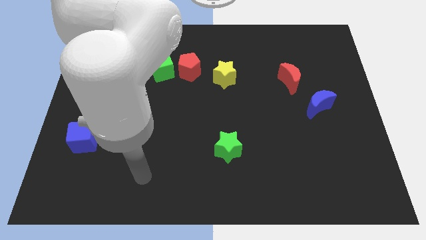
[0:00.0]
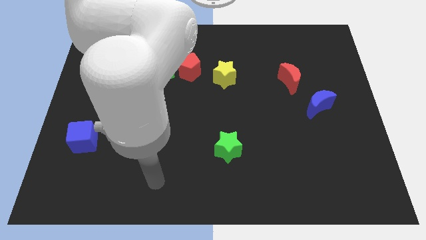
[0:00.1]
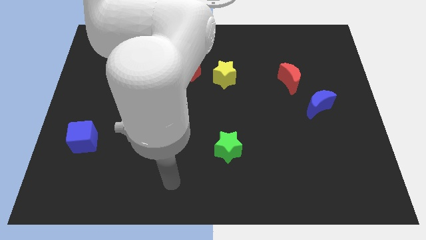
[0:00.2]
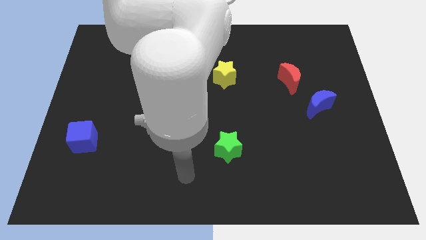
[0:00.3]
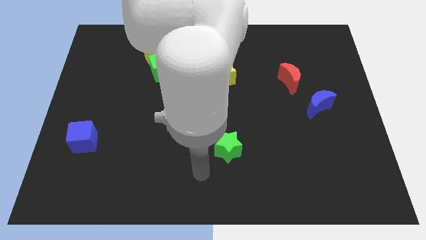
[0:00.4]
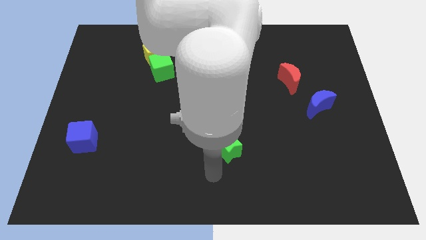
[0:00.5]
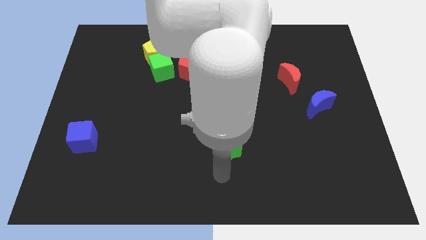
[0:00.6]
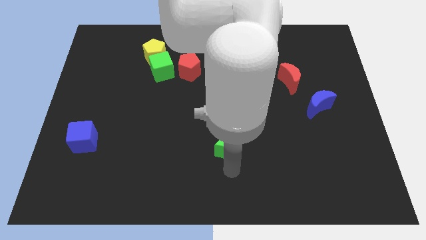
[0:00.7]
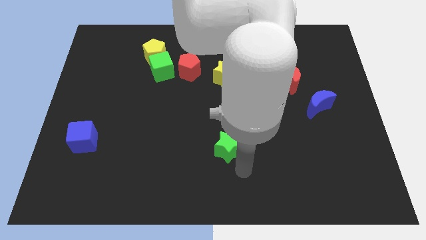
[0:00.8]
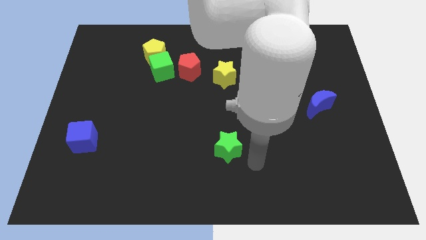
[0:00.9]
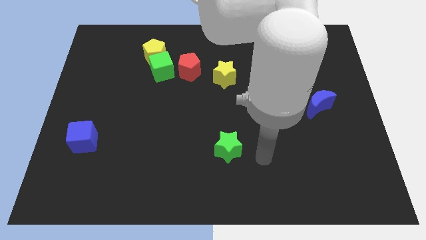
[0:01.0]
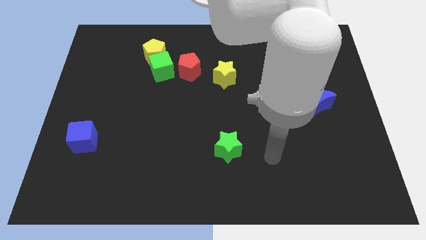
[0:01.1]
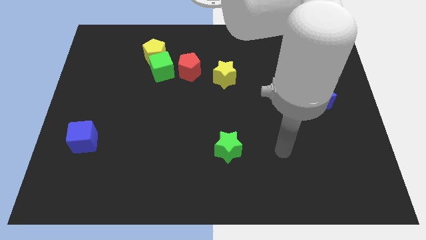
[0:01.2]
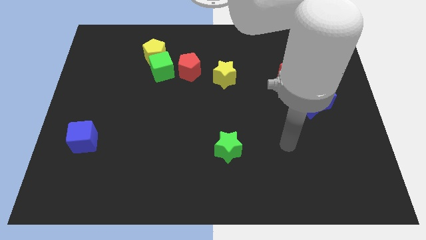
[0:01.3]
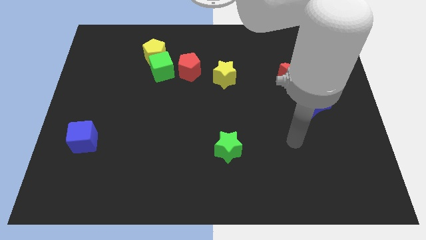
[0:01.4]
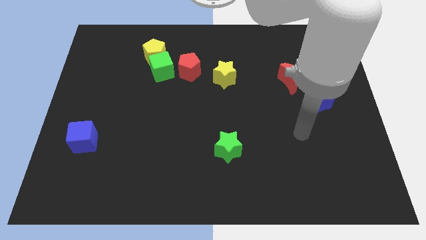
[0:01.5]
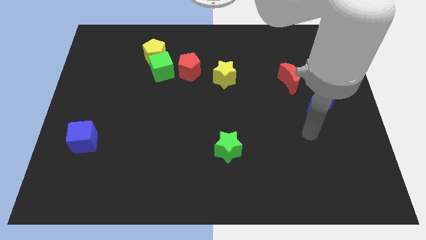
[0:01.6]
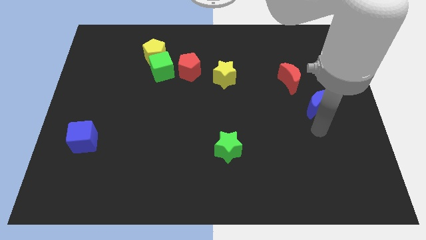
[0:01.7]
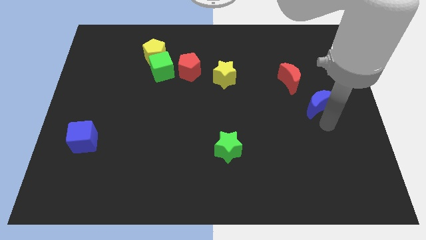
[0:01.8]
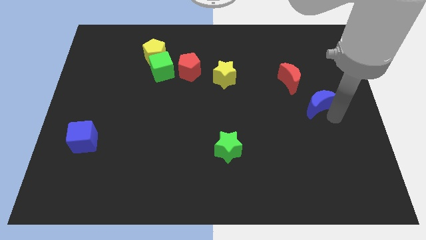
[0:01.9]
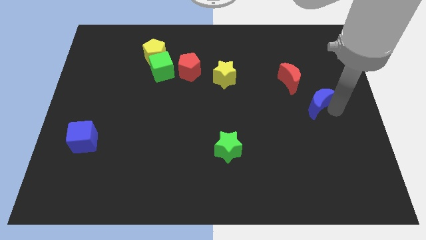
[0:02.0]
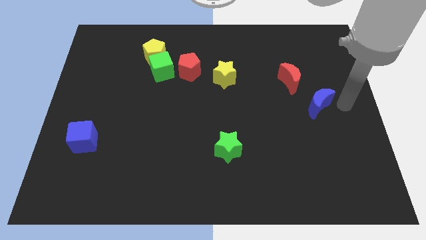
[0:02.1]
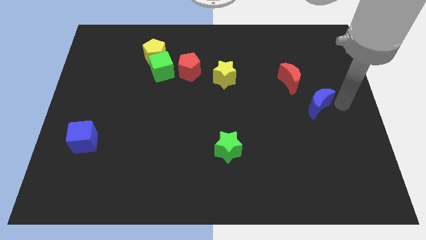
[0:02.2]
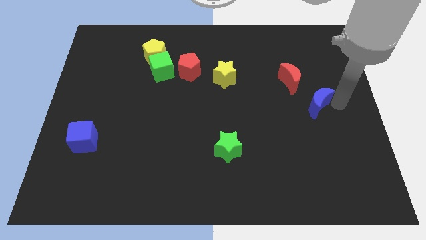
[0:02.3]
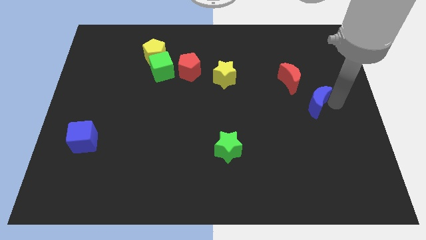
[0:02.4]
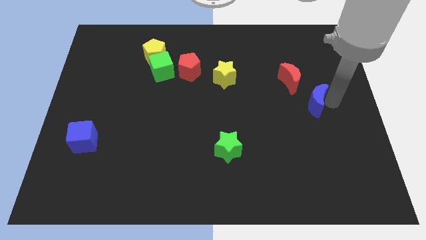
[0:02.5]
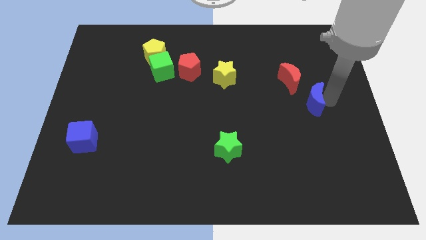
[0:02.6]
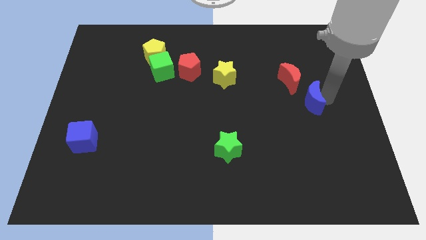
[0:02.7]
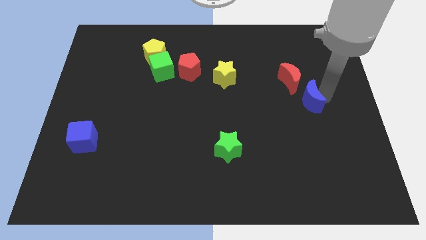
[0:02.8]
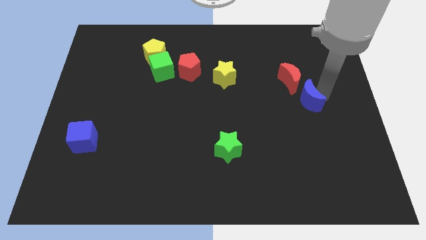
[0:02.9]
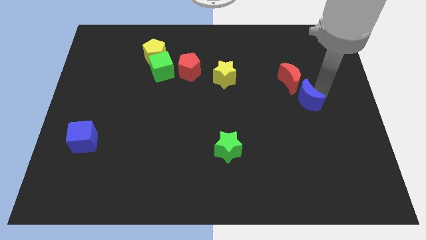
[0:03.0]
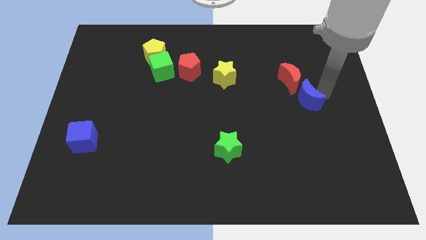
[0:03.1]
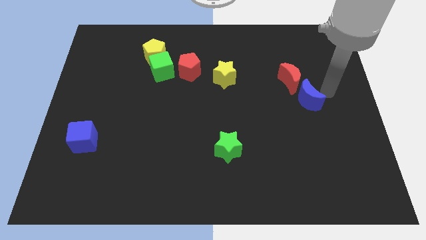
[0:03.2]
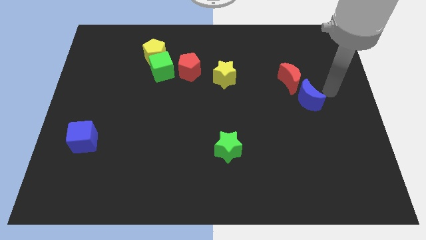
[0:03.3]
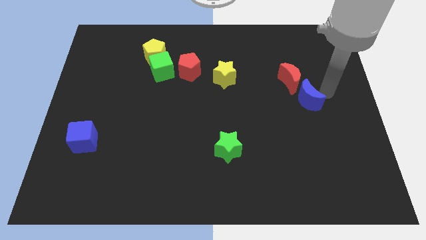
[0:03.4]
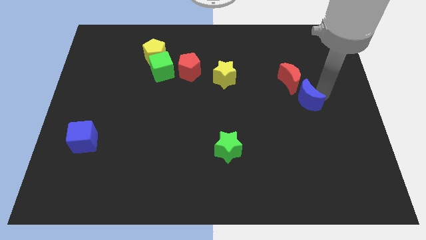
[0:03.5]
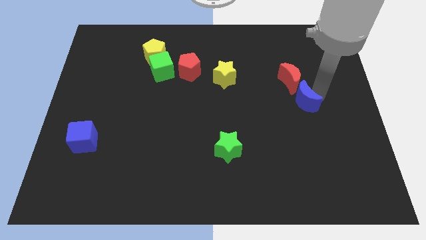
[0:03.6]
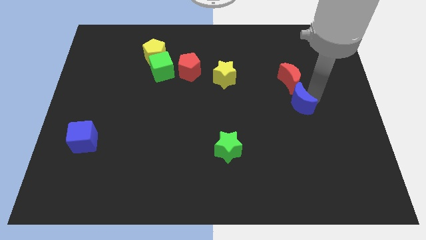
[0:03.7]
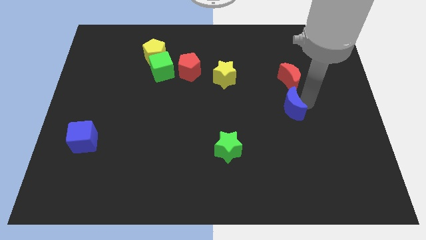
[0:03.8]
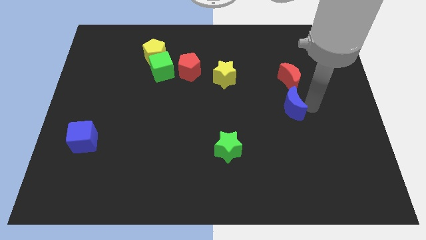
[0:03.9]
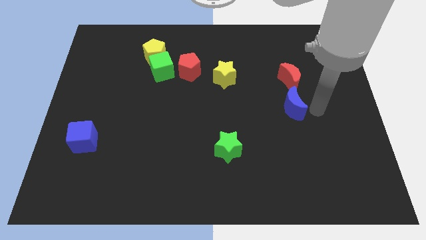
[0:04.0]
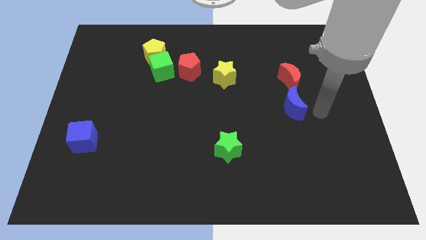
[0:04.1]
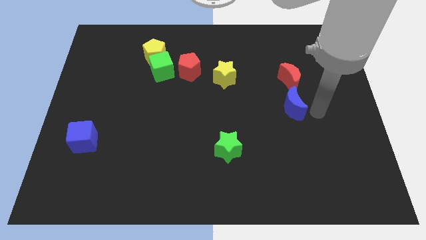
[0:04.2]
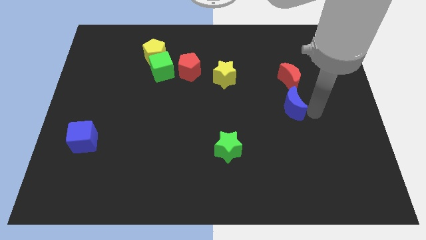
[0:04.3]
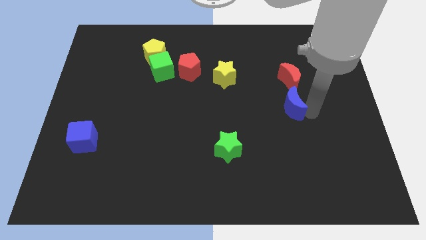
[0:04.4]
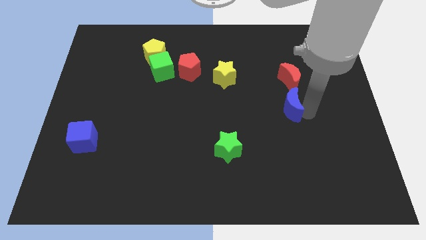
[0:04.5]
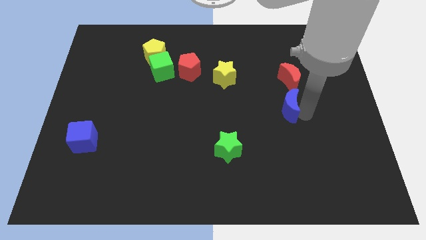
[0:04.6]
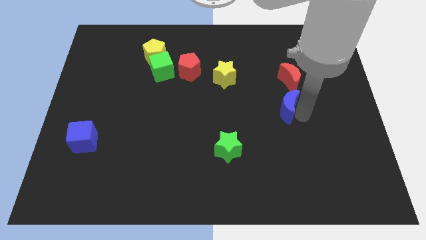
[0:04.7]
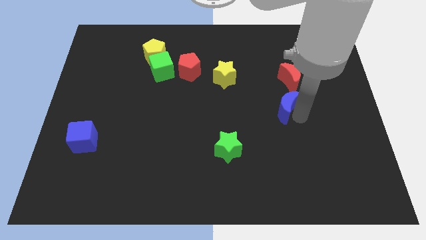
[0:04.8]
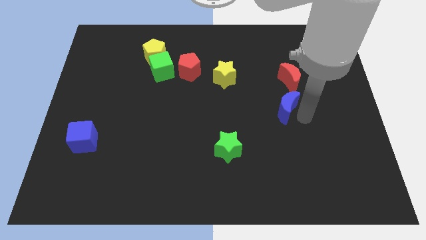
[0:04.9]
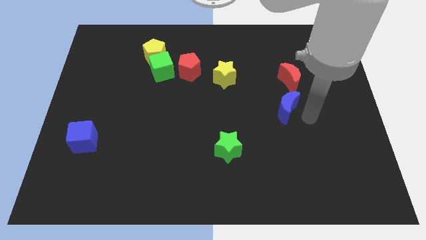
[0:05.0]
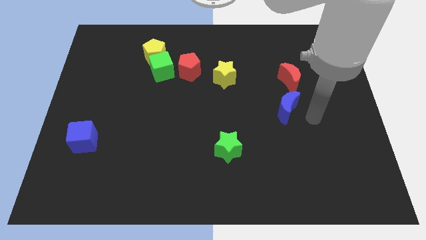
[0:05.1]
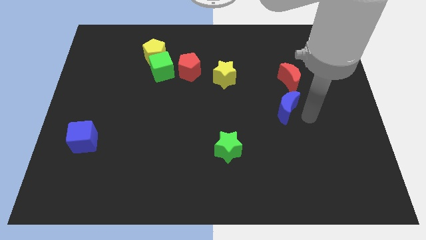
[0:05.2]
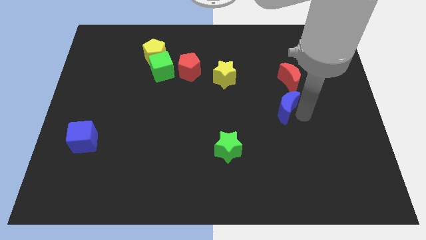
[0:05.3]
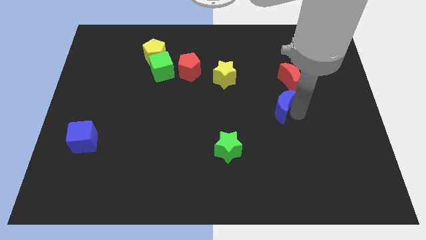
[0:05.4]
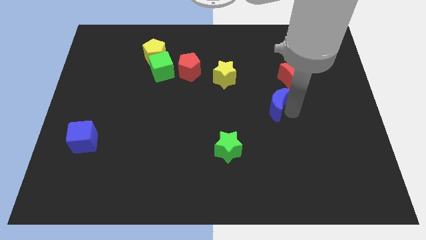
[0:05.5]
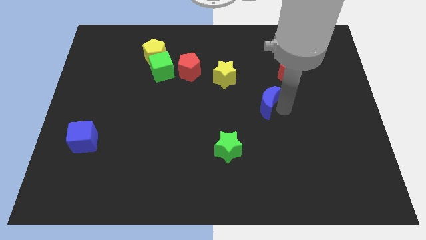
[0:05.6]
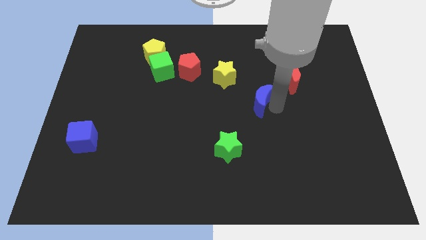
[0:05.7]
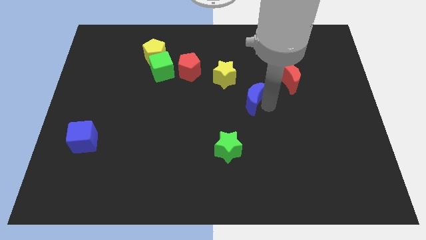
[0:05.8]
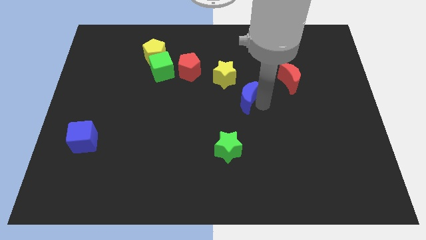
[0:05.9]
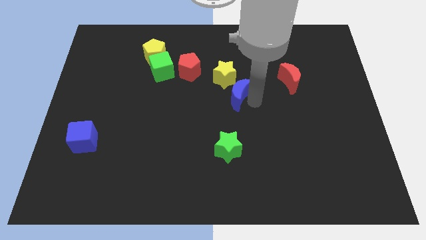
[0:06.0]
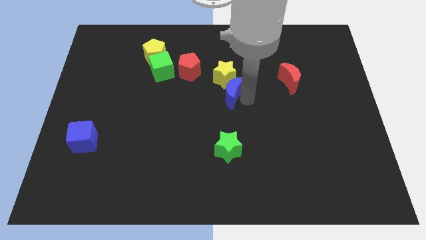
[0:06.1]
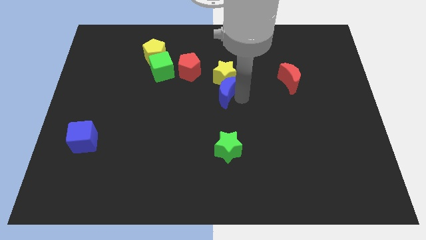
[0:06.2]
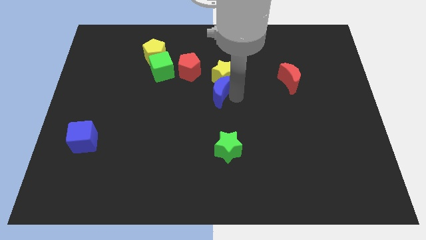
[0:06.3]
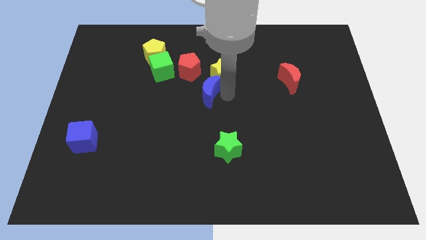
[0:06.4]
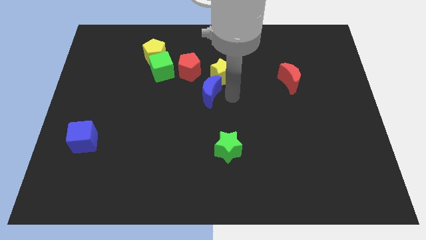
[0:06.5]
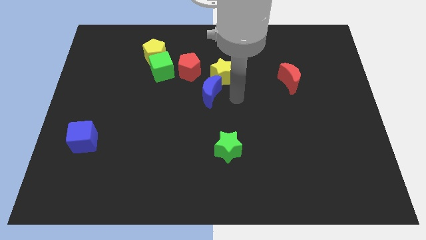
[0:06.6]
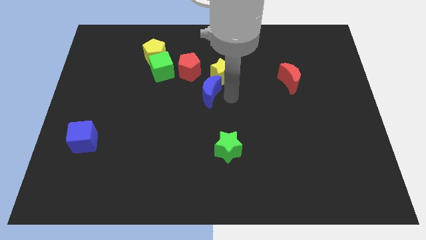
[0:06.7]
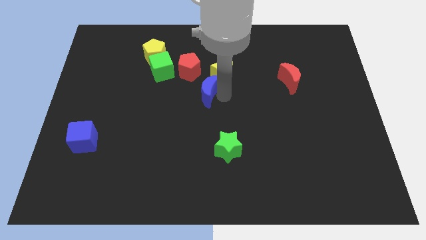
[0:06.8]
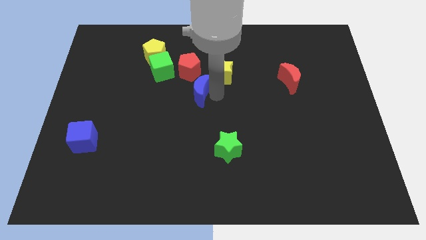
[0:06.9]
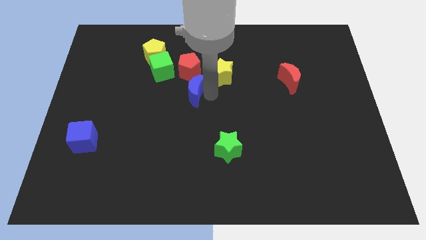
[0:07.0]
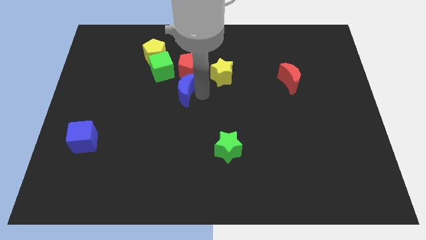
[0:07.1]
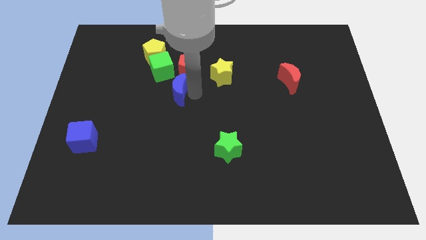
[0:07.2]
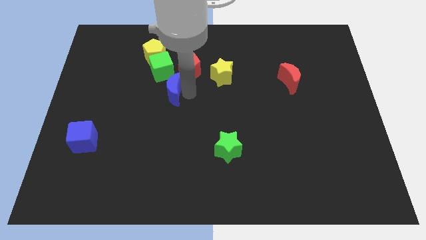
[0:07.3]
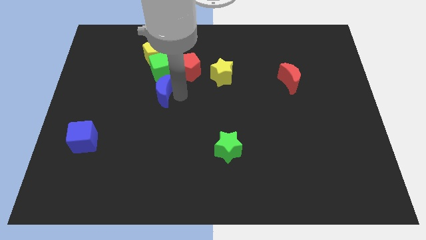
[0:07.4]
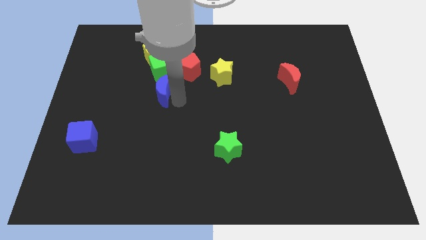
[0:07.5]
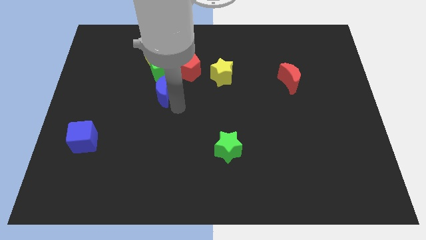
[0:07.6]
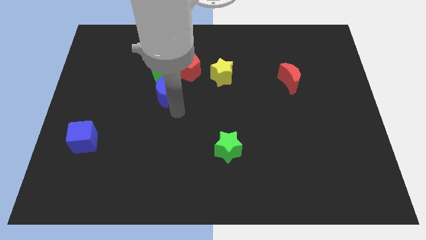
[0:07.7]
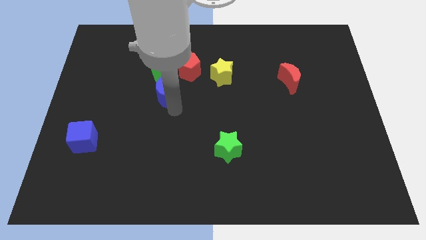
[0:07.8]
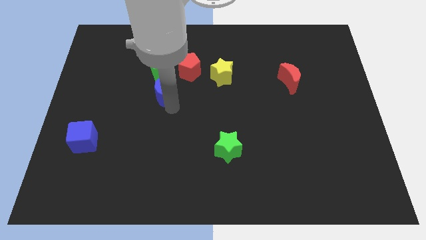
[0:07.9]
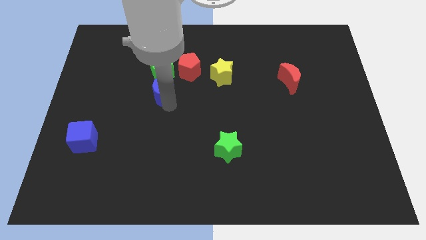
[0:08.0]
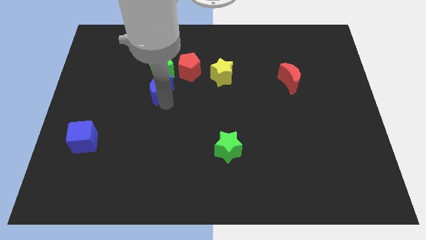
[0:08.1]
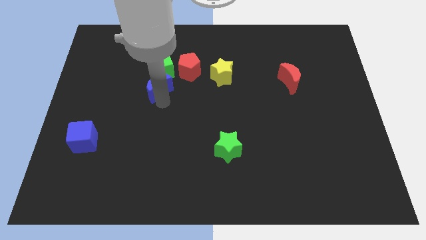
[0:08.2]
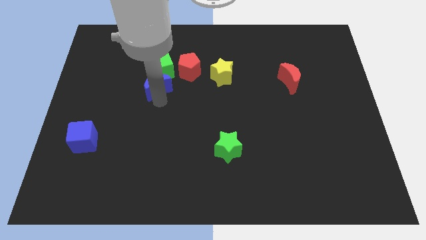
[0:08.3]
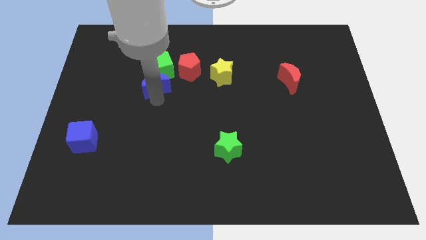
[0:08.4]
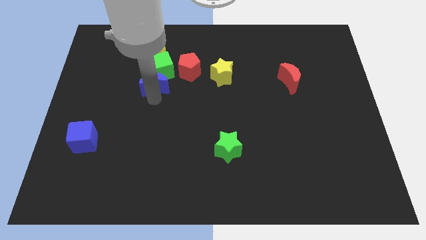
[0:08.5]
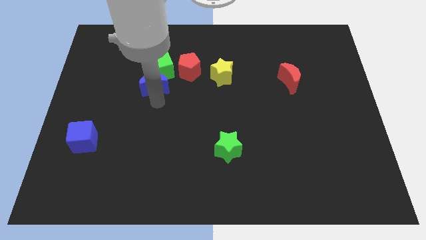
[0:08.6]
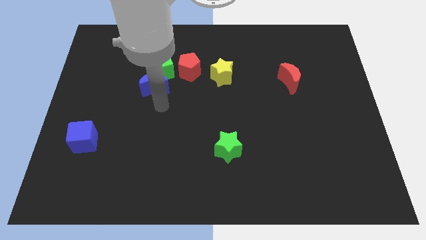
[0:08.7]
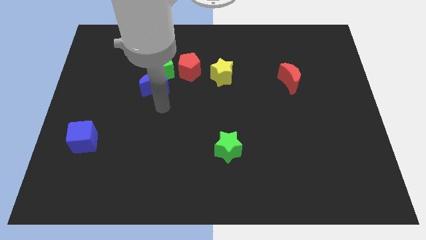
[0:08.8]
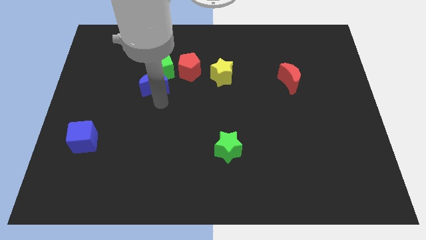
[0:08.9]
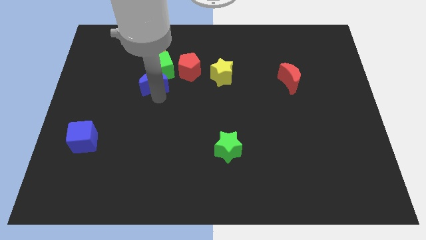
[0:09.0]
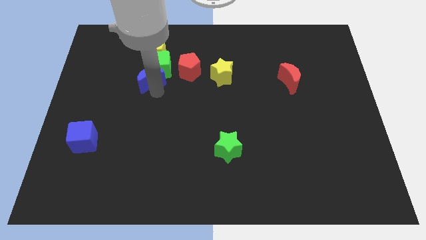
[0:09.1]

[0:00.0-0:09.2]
put the blue moon left of the red pentagon
